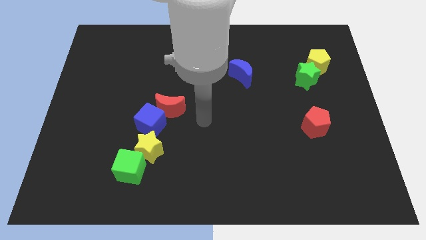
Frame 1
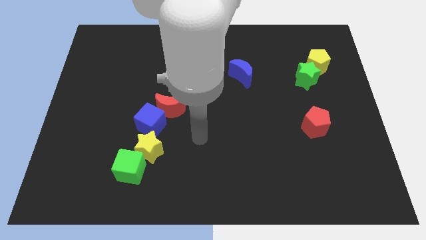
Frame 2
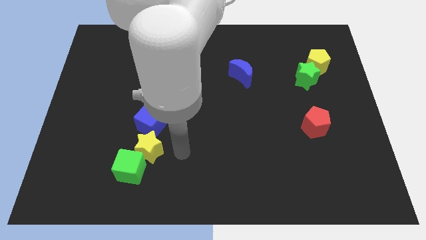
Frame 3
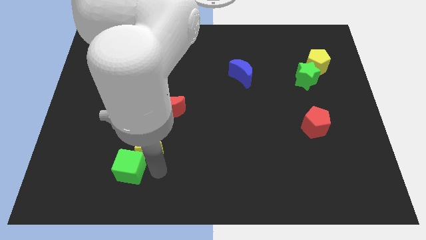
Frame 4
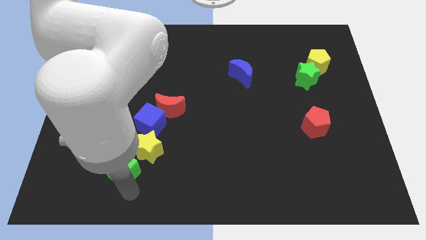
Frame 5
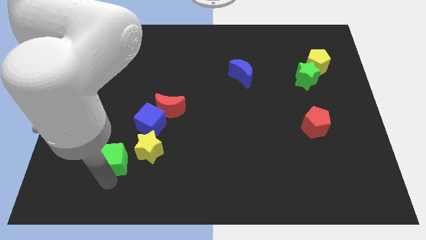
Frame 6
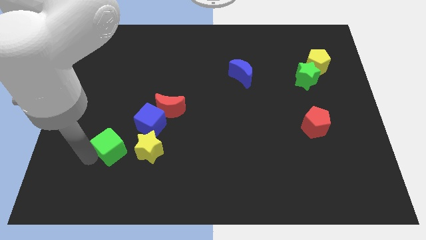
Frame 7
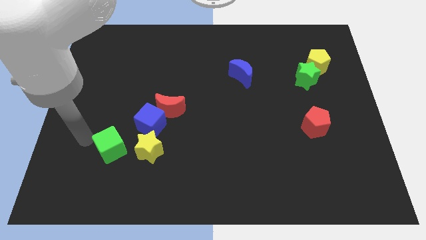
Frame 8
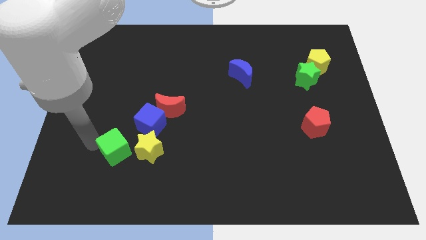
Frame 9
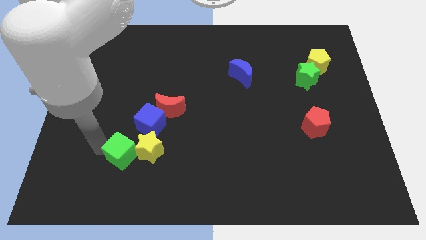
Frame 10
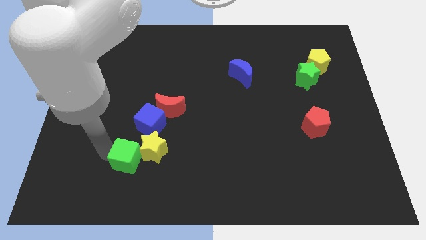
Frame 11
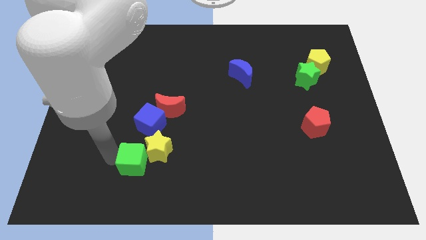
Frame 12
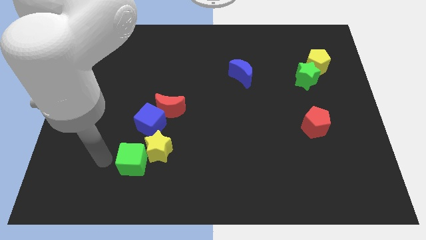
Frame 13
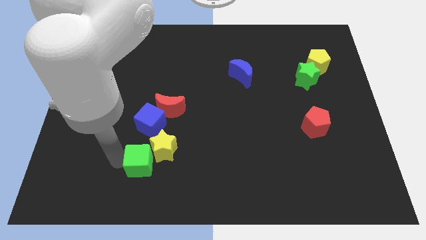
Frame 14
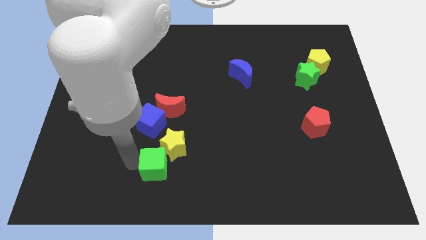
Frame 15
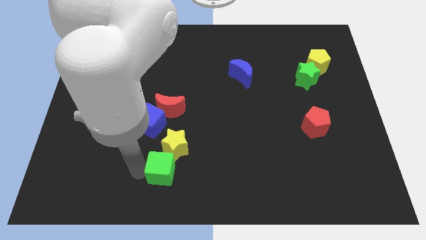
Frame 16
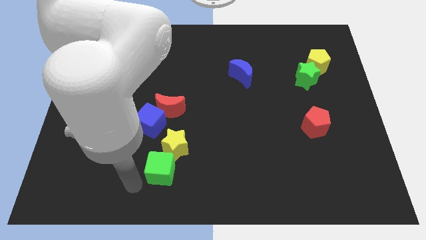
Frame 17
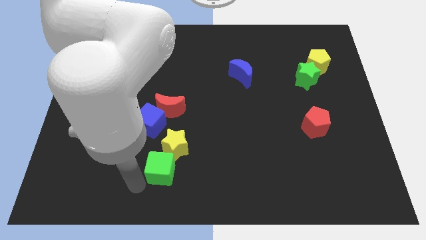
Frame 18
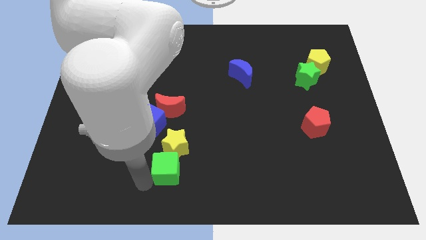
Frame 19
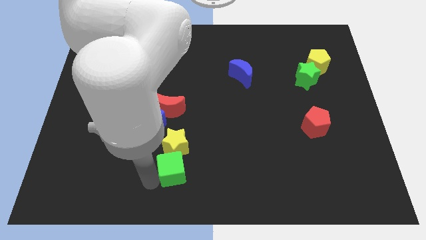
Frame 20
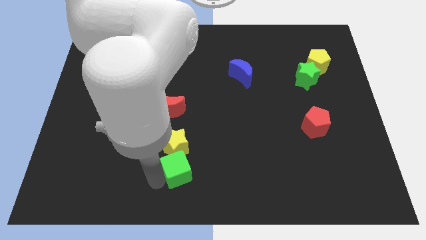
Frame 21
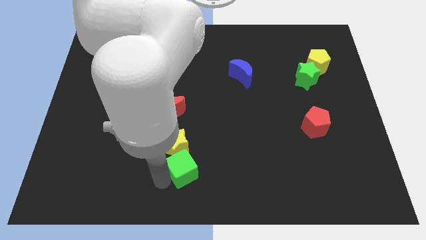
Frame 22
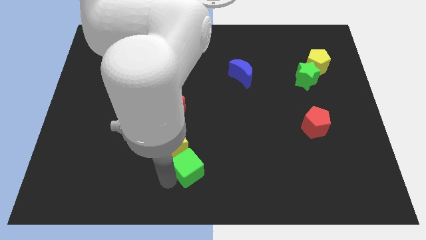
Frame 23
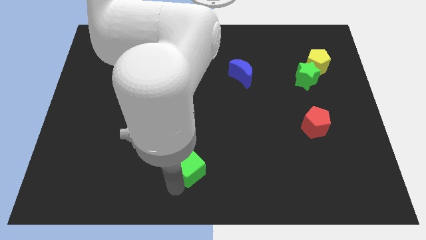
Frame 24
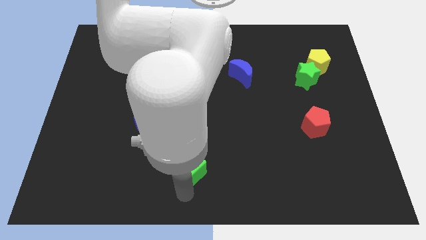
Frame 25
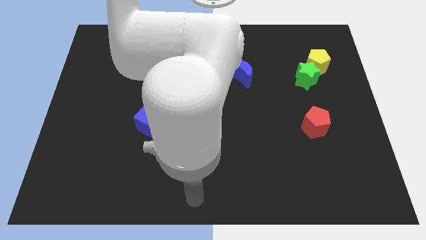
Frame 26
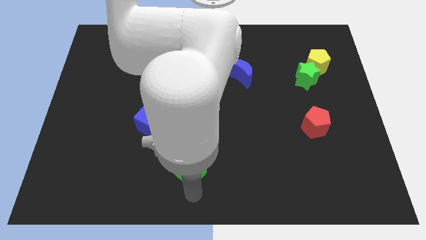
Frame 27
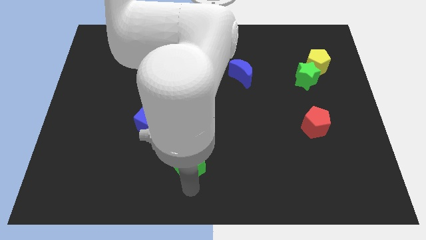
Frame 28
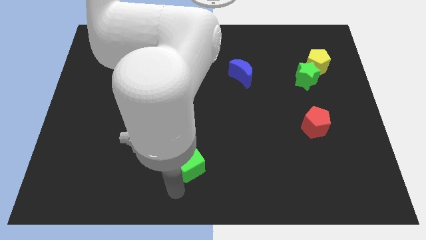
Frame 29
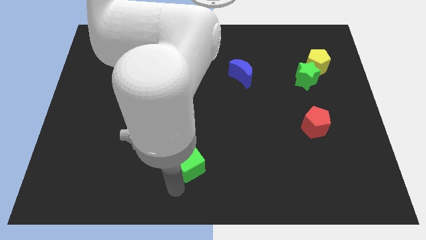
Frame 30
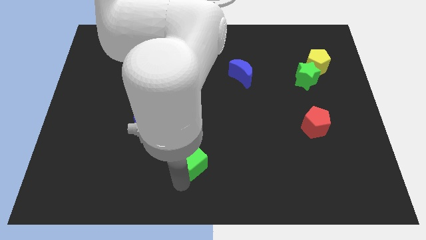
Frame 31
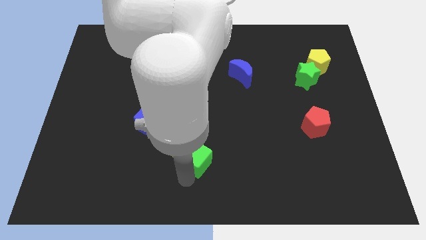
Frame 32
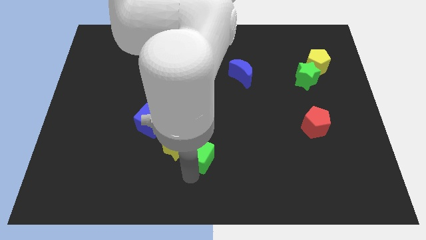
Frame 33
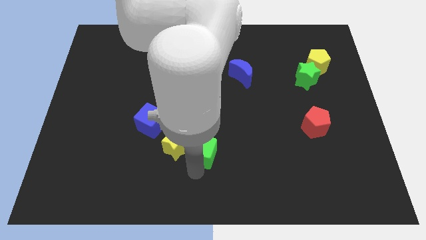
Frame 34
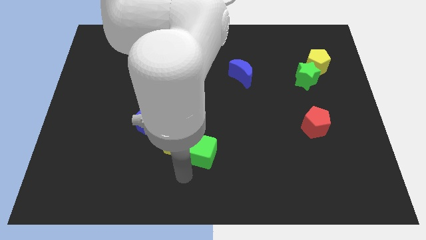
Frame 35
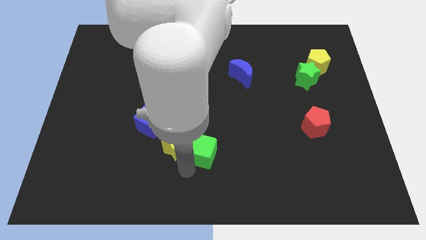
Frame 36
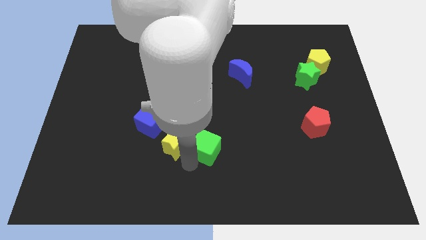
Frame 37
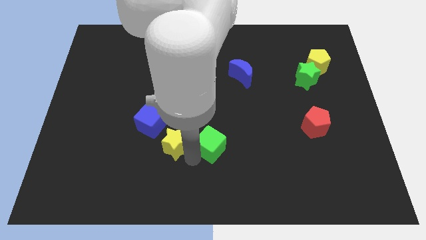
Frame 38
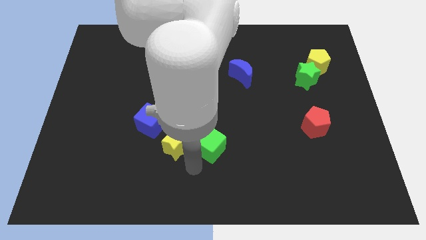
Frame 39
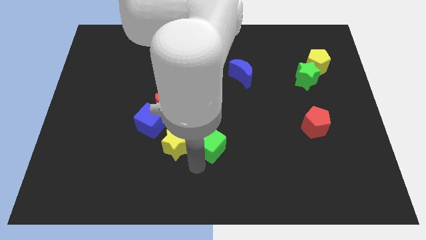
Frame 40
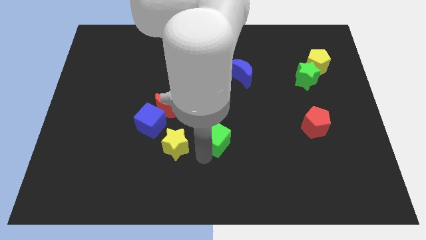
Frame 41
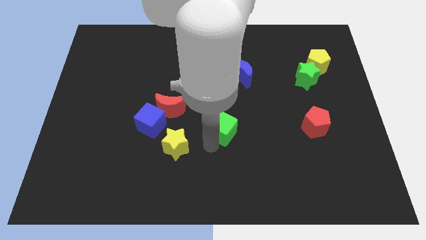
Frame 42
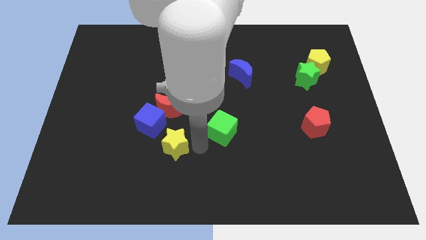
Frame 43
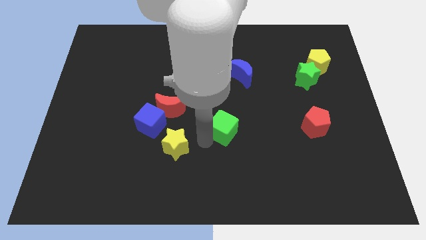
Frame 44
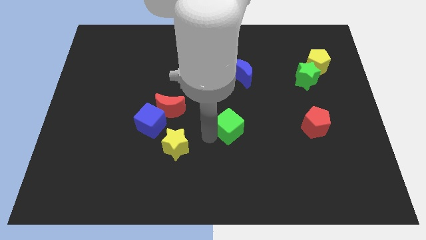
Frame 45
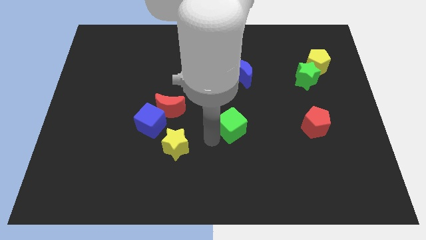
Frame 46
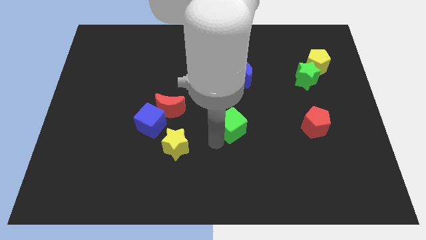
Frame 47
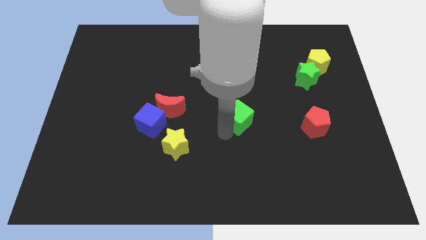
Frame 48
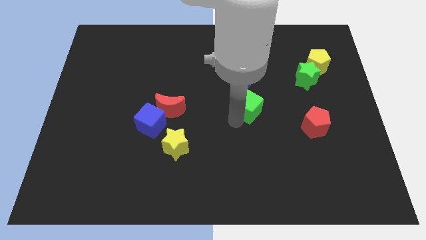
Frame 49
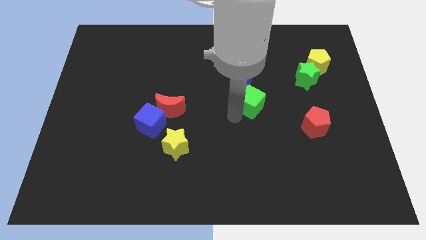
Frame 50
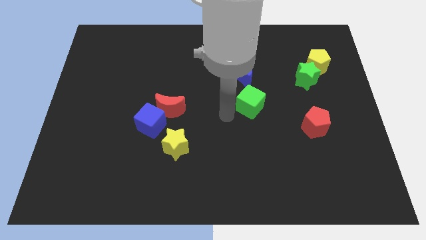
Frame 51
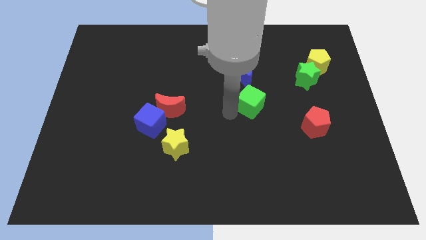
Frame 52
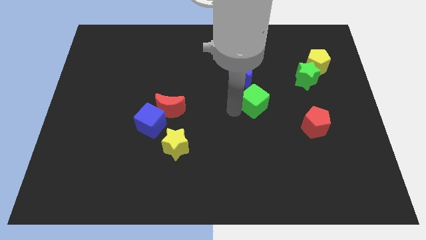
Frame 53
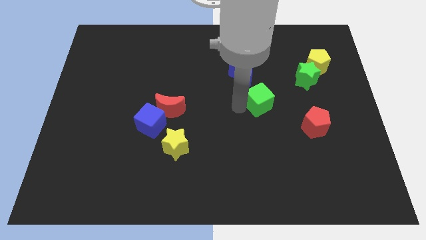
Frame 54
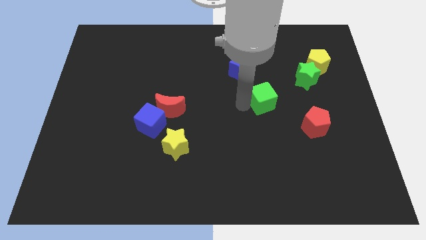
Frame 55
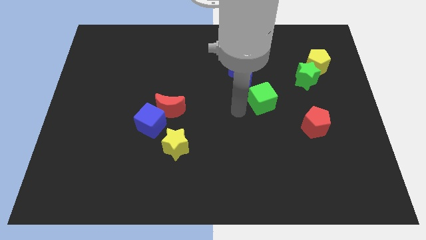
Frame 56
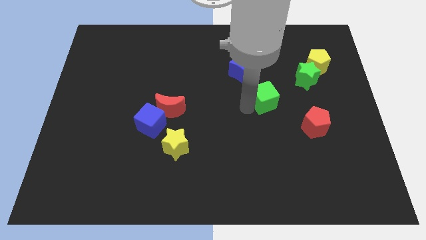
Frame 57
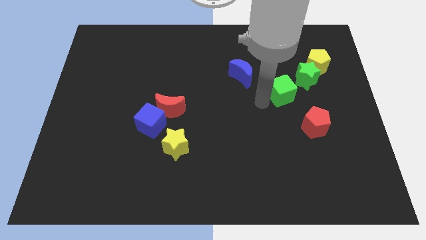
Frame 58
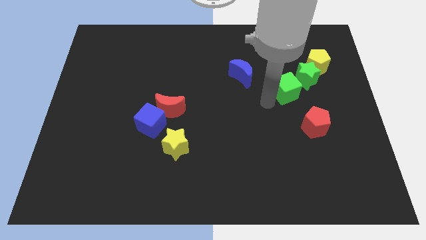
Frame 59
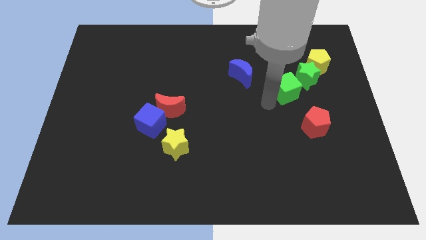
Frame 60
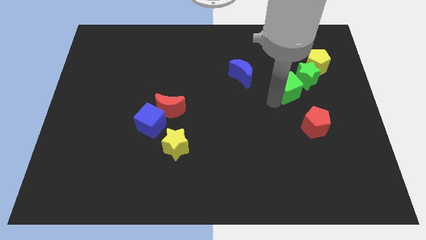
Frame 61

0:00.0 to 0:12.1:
push the green cube close to the green star

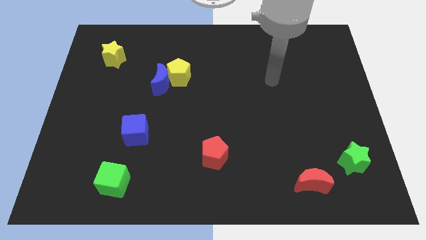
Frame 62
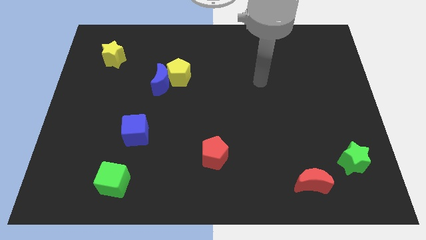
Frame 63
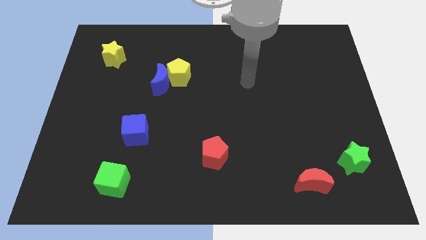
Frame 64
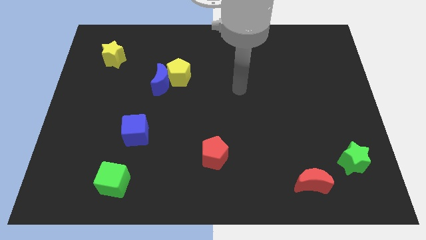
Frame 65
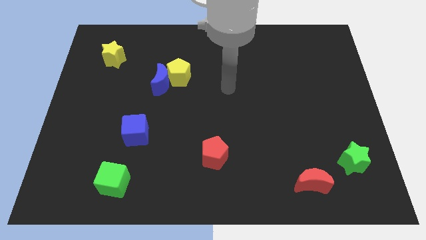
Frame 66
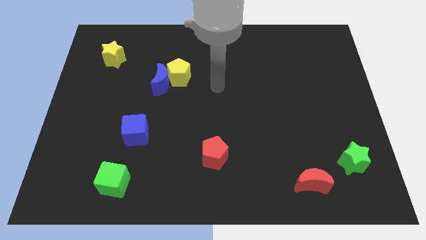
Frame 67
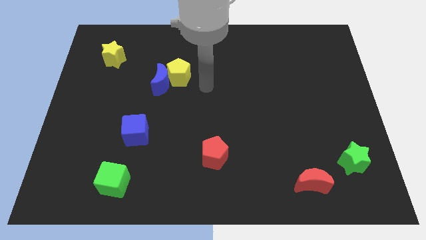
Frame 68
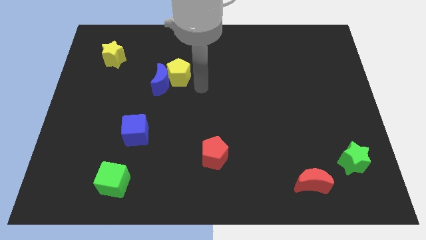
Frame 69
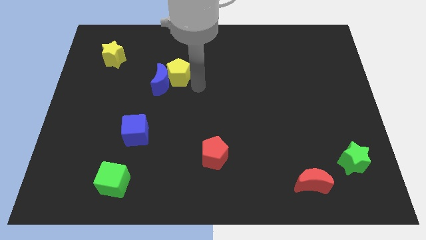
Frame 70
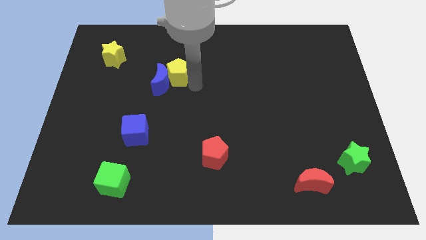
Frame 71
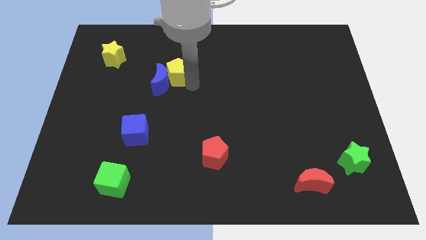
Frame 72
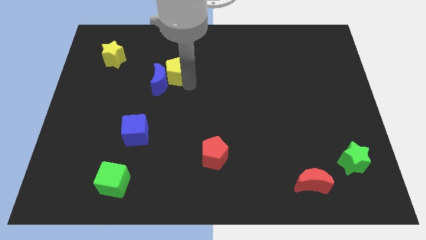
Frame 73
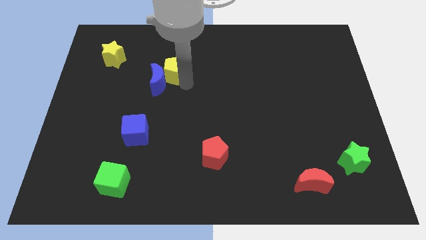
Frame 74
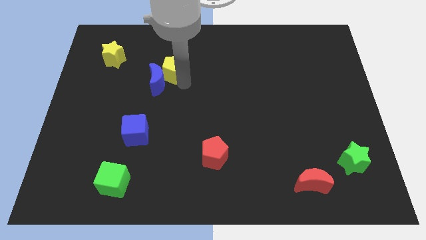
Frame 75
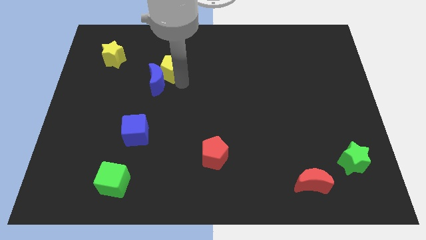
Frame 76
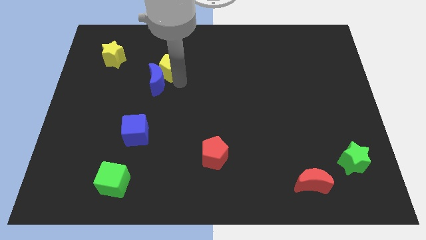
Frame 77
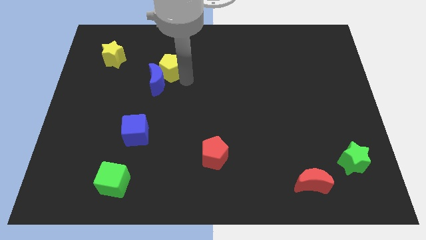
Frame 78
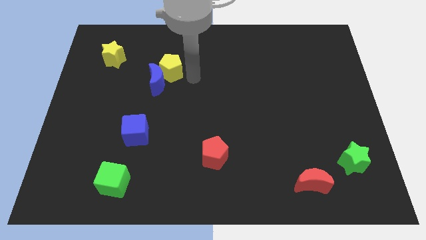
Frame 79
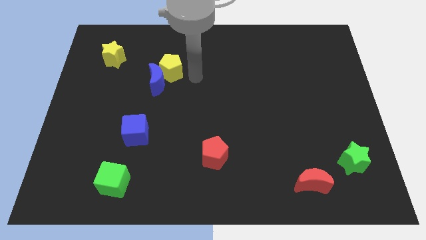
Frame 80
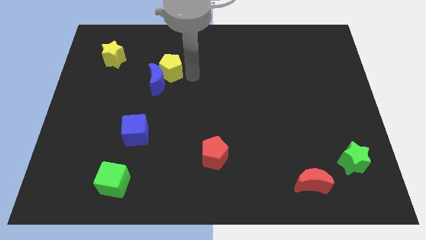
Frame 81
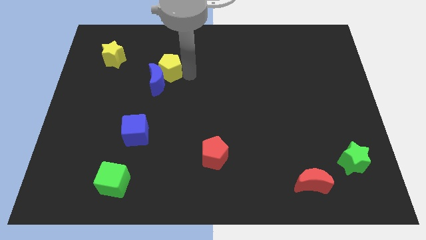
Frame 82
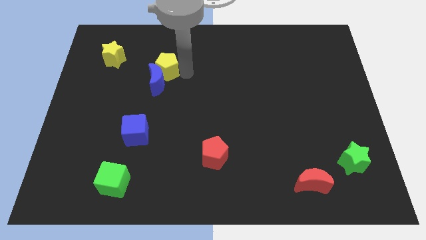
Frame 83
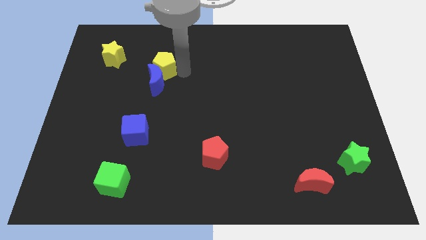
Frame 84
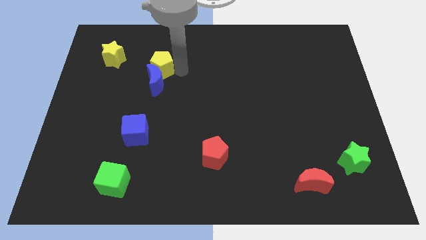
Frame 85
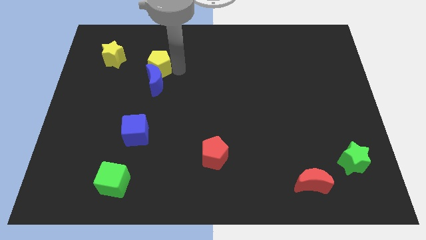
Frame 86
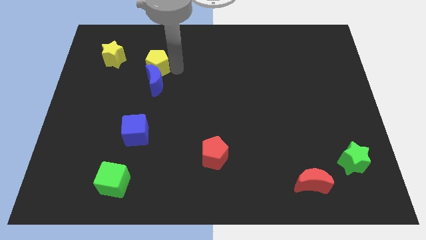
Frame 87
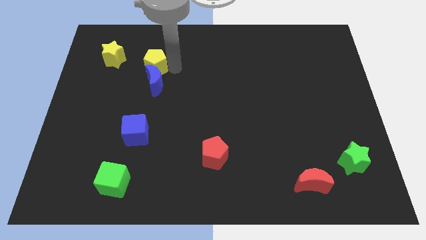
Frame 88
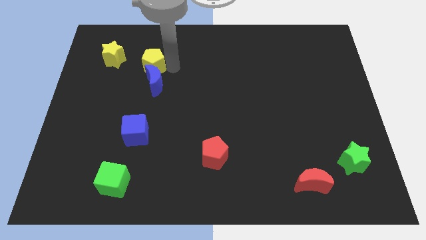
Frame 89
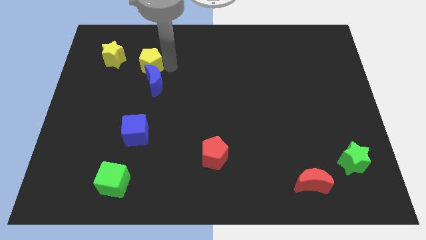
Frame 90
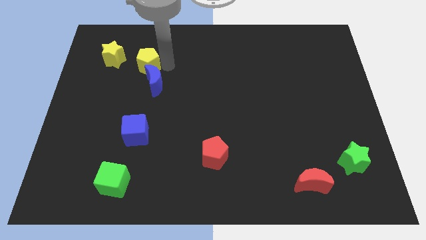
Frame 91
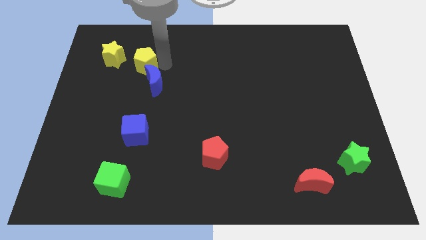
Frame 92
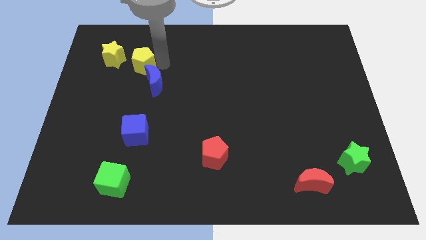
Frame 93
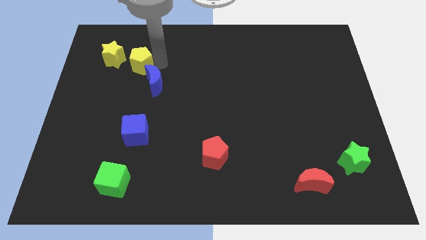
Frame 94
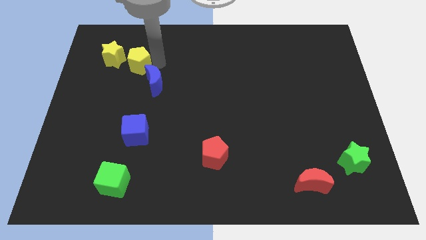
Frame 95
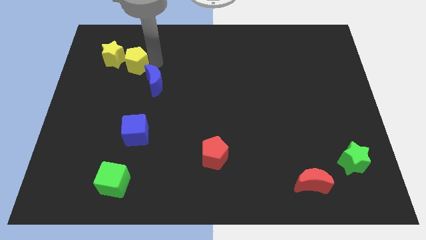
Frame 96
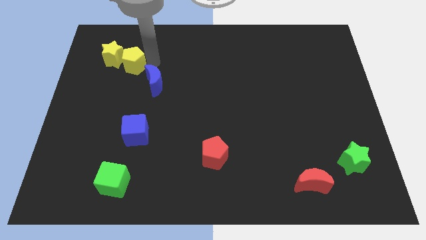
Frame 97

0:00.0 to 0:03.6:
put the yellow pentagon close to the yellow star
